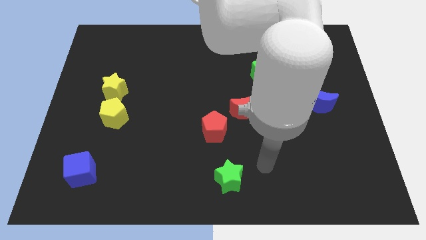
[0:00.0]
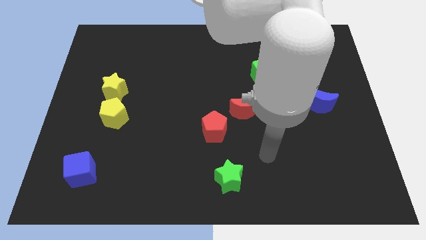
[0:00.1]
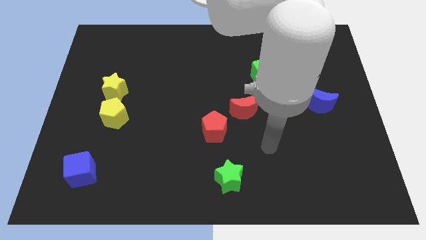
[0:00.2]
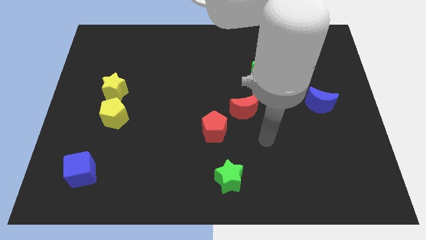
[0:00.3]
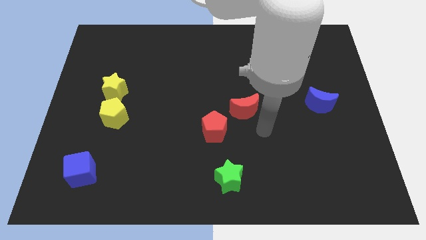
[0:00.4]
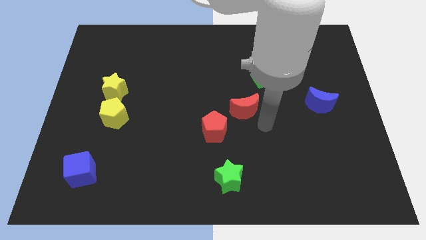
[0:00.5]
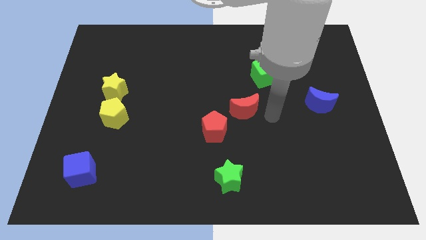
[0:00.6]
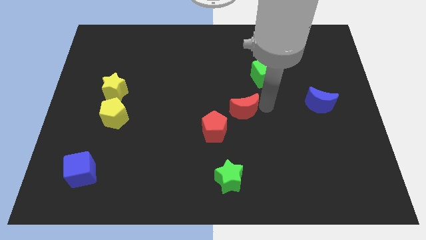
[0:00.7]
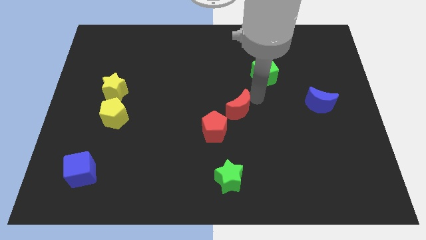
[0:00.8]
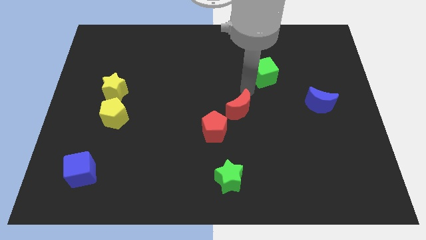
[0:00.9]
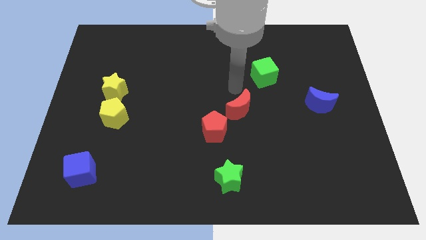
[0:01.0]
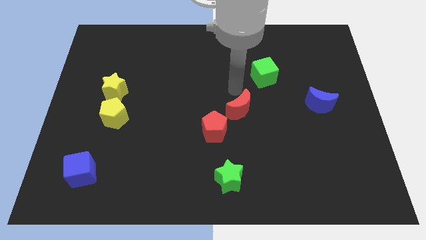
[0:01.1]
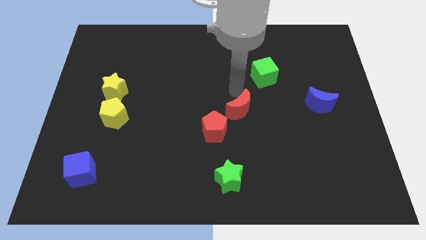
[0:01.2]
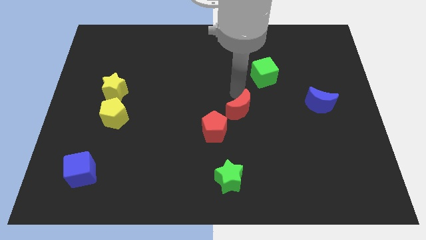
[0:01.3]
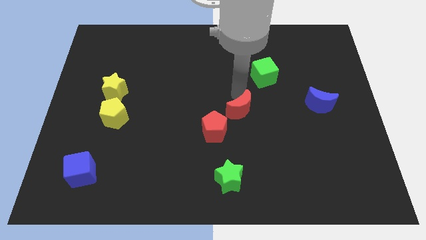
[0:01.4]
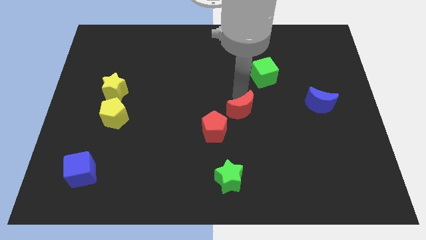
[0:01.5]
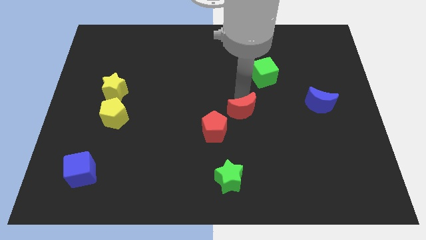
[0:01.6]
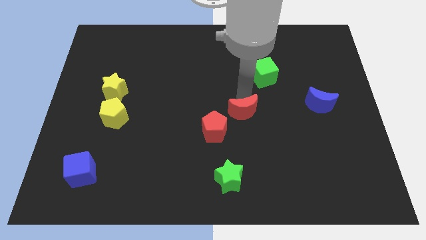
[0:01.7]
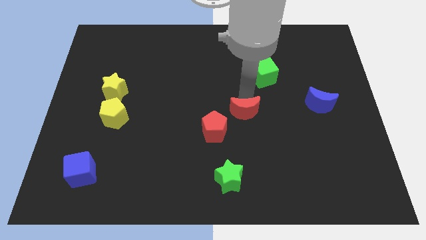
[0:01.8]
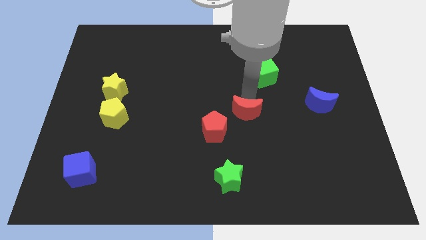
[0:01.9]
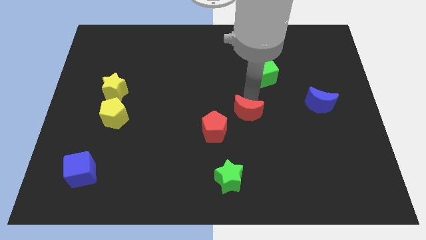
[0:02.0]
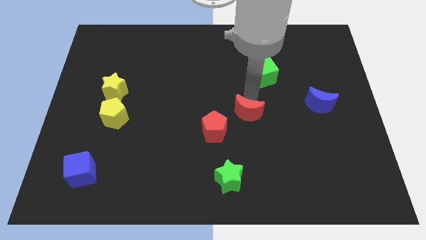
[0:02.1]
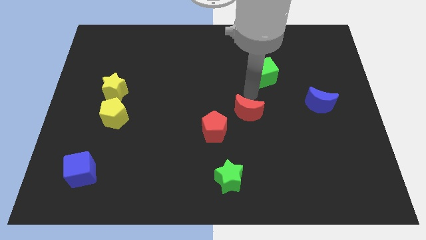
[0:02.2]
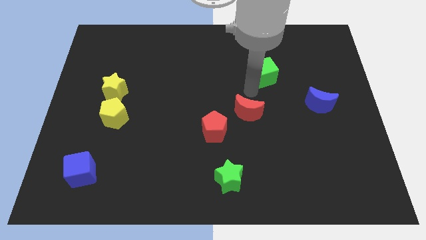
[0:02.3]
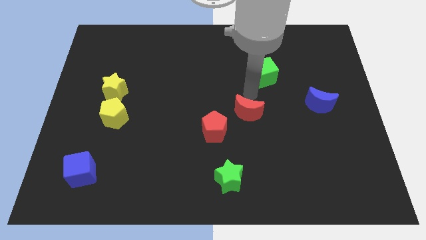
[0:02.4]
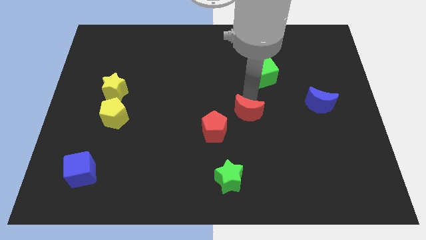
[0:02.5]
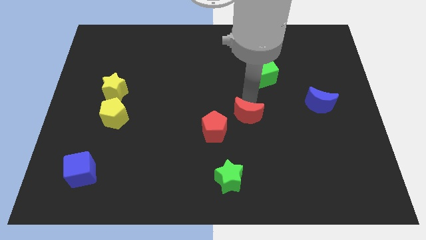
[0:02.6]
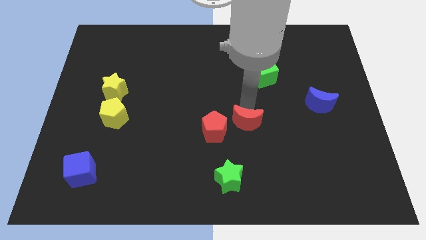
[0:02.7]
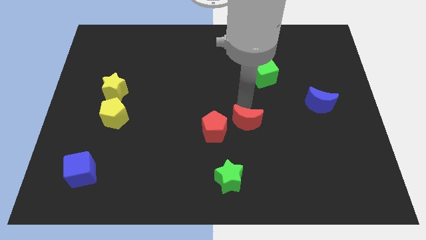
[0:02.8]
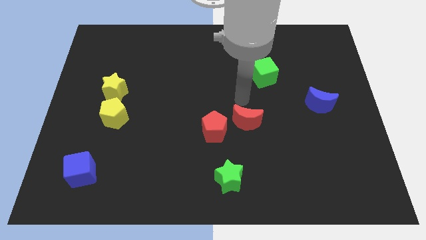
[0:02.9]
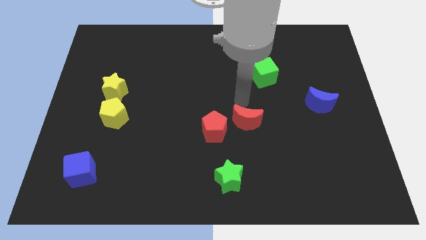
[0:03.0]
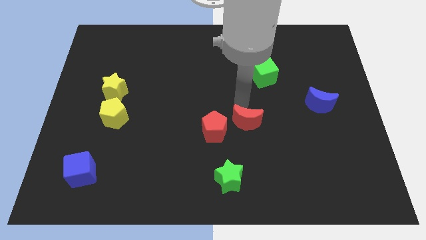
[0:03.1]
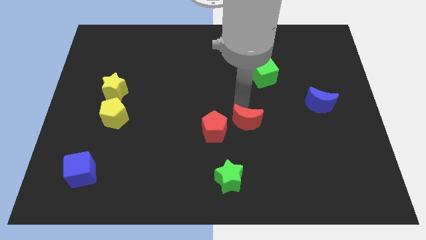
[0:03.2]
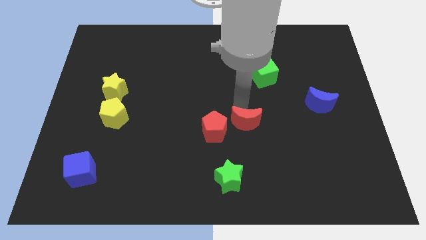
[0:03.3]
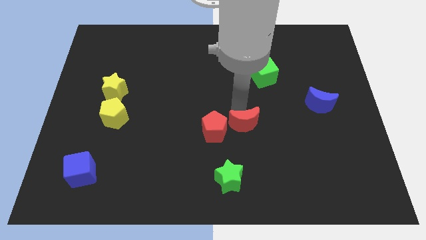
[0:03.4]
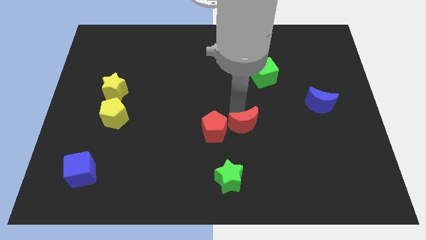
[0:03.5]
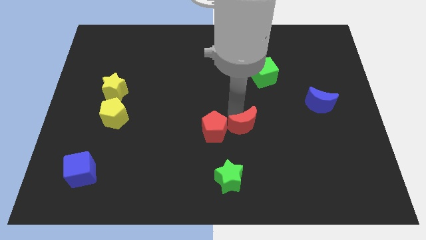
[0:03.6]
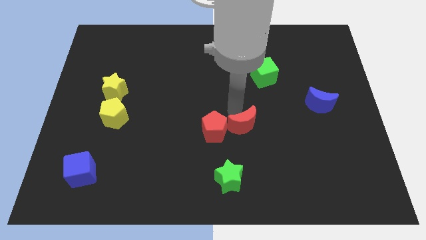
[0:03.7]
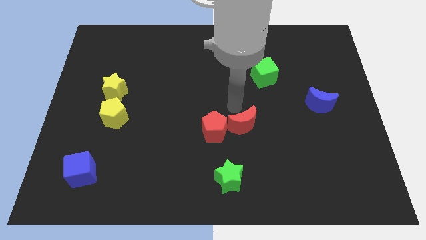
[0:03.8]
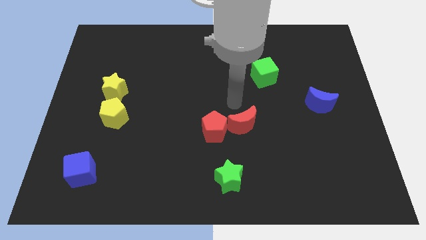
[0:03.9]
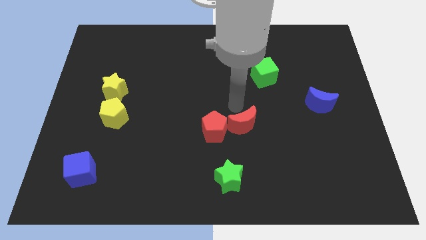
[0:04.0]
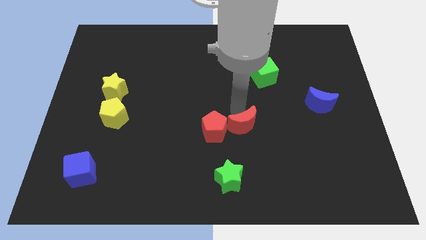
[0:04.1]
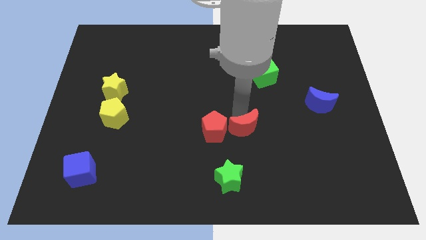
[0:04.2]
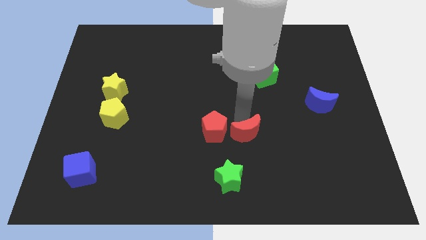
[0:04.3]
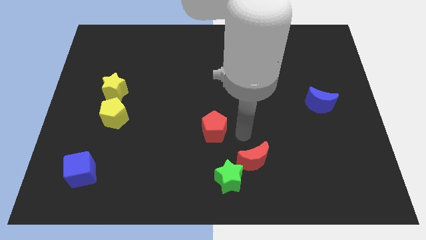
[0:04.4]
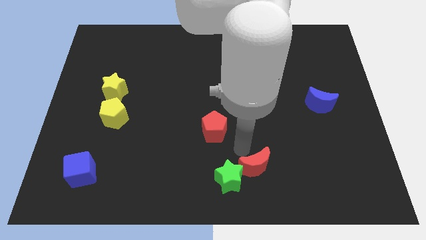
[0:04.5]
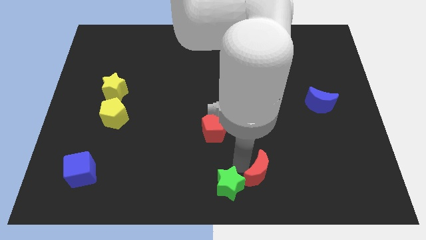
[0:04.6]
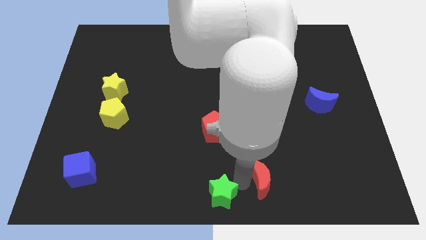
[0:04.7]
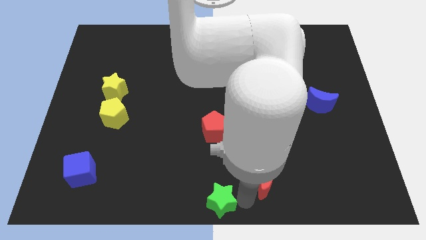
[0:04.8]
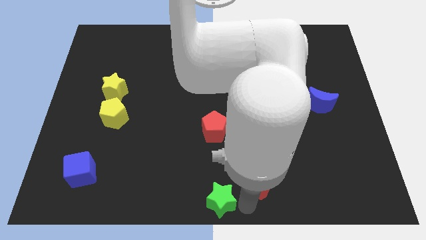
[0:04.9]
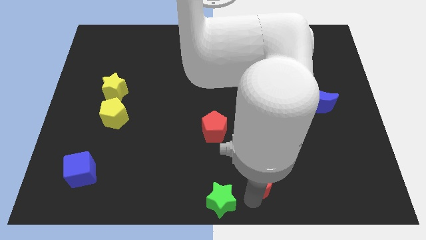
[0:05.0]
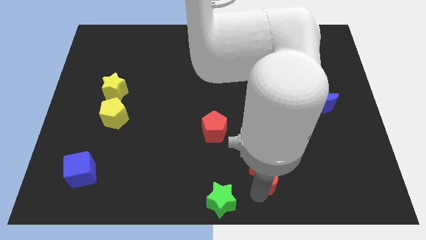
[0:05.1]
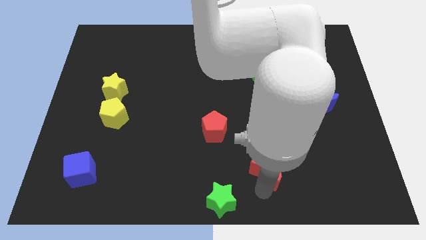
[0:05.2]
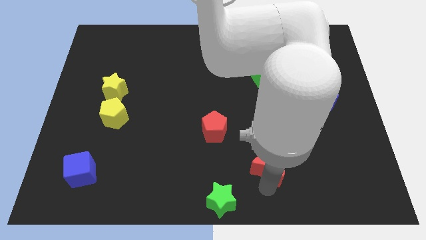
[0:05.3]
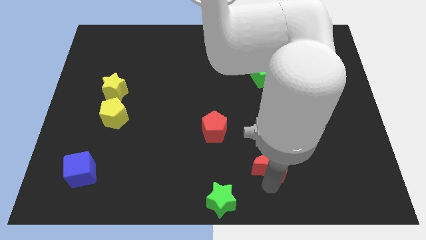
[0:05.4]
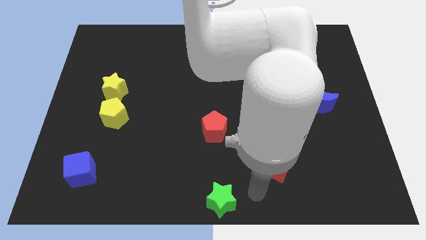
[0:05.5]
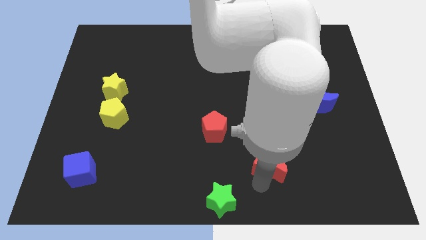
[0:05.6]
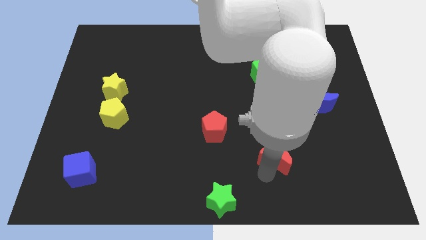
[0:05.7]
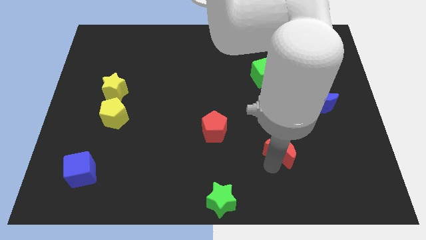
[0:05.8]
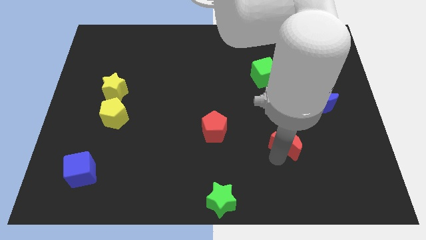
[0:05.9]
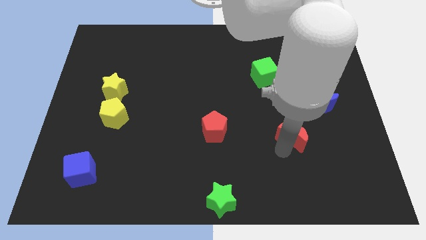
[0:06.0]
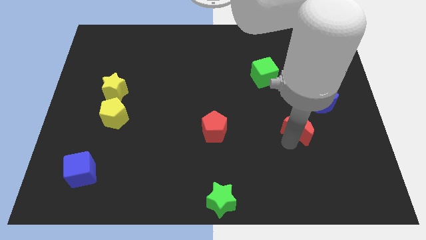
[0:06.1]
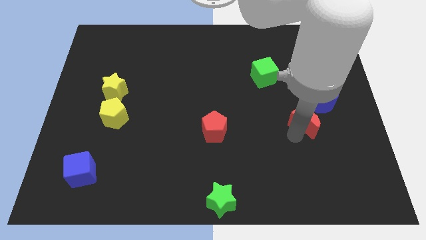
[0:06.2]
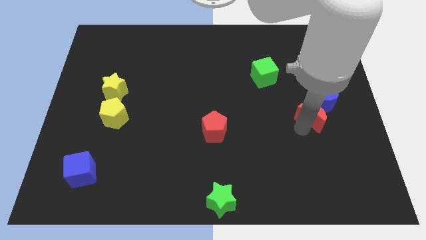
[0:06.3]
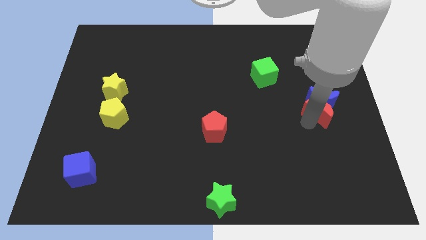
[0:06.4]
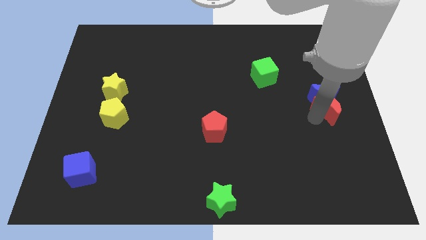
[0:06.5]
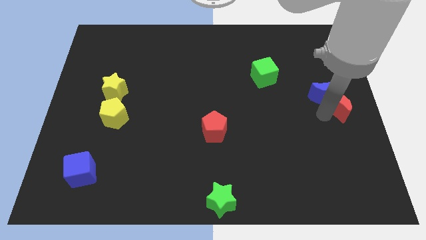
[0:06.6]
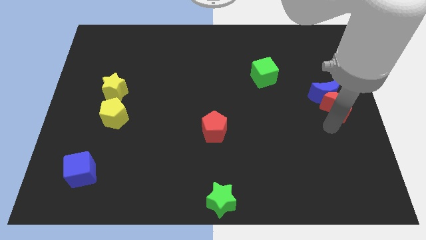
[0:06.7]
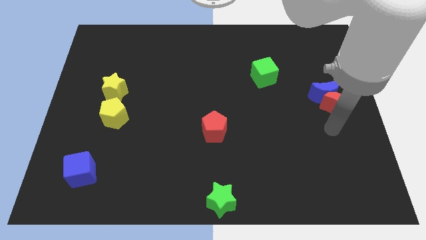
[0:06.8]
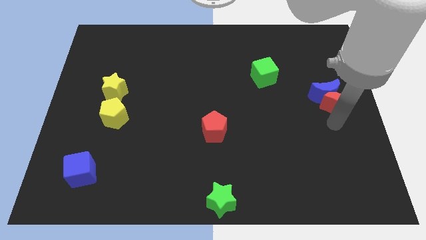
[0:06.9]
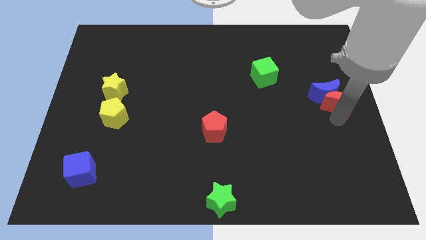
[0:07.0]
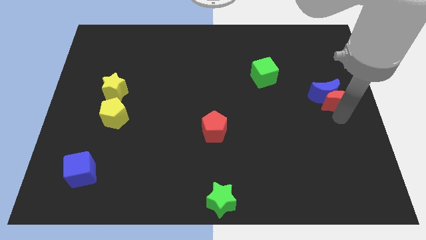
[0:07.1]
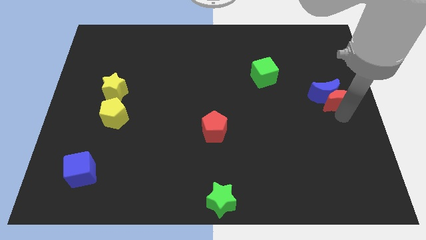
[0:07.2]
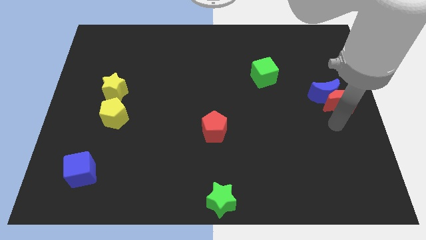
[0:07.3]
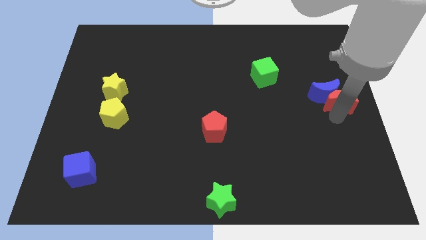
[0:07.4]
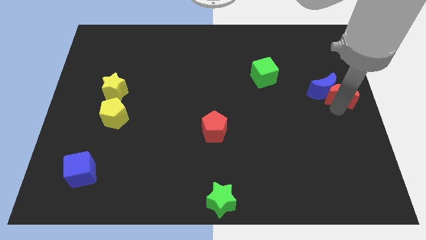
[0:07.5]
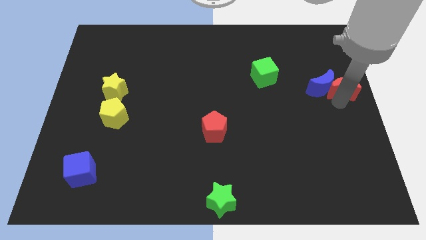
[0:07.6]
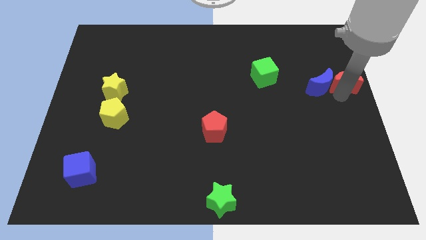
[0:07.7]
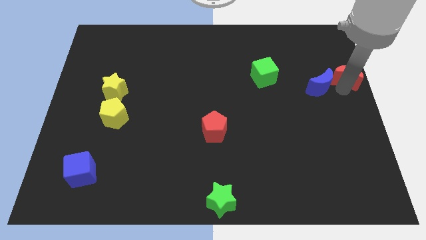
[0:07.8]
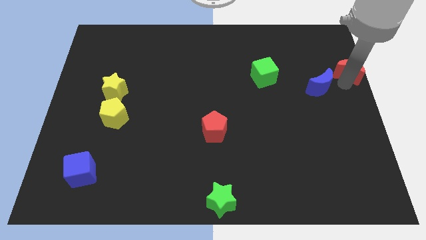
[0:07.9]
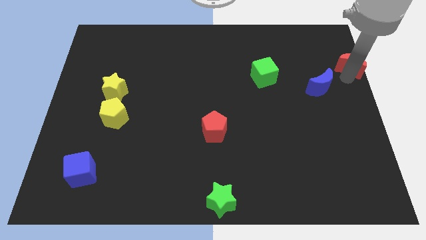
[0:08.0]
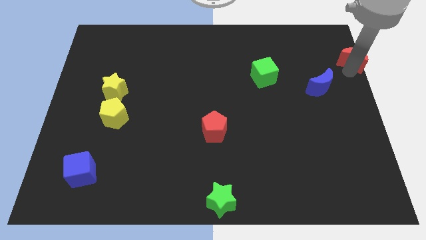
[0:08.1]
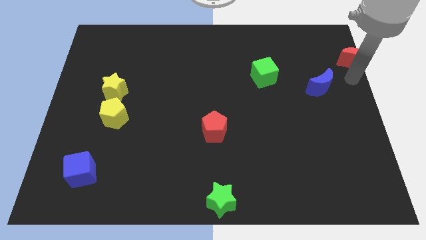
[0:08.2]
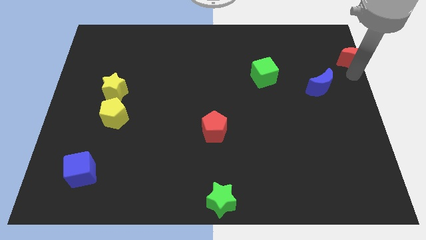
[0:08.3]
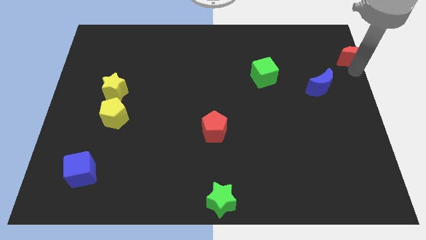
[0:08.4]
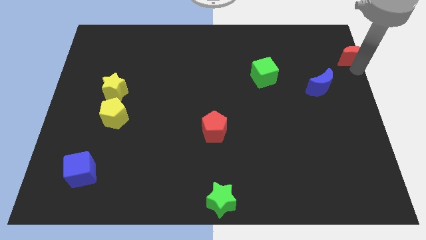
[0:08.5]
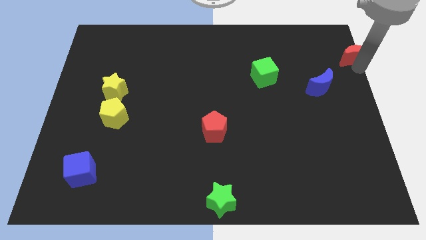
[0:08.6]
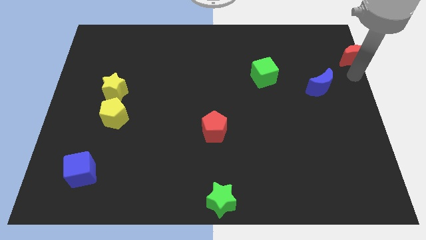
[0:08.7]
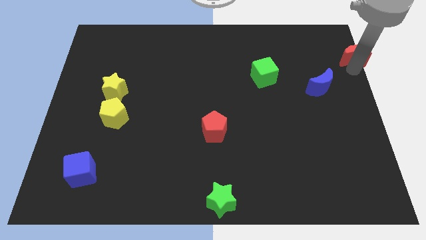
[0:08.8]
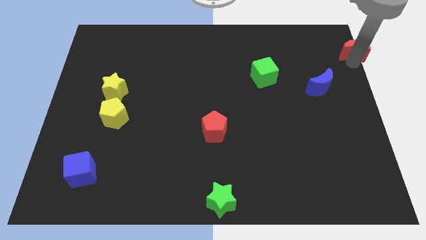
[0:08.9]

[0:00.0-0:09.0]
put the red moon to the top right
